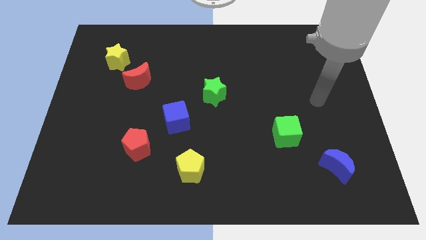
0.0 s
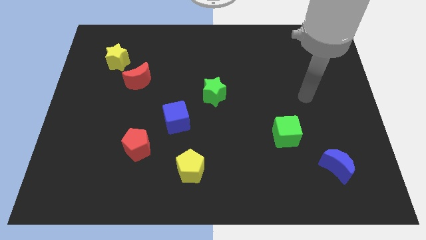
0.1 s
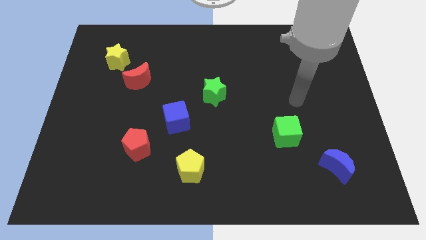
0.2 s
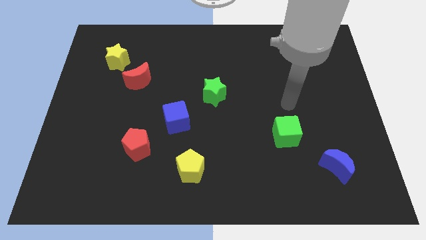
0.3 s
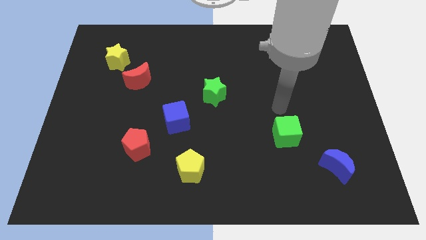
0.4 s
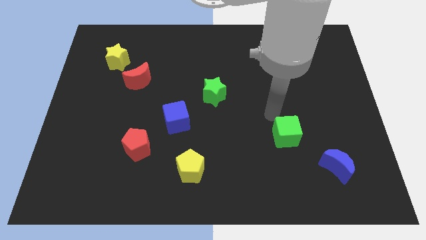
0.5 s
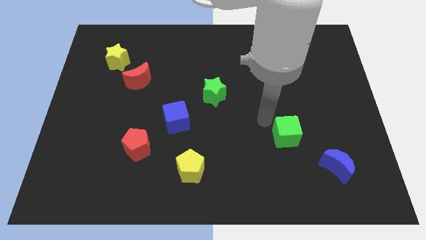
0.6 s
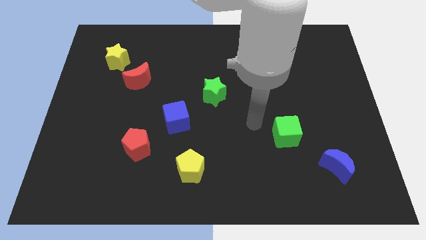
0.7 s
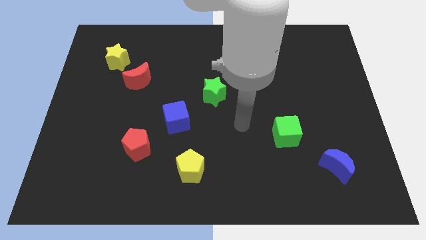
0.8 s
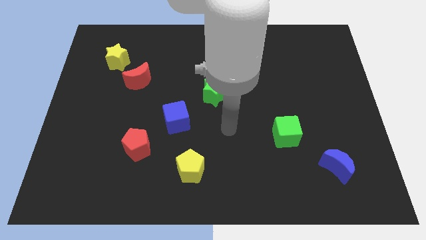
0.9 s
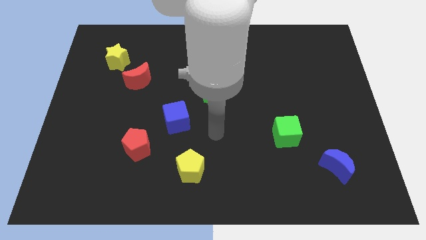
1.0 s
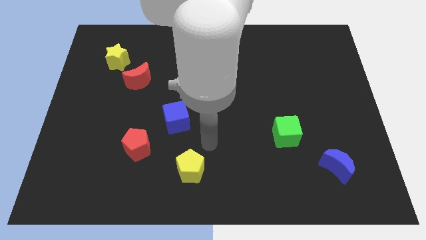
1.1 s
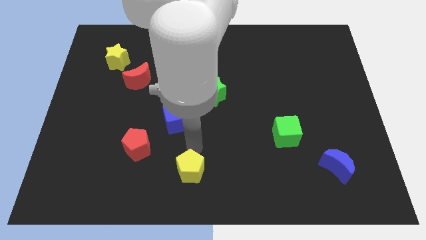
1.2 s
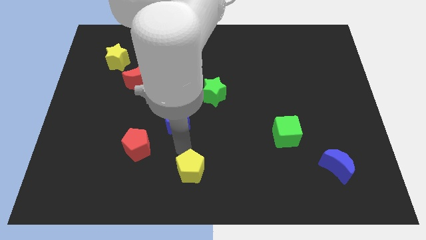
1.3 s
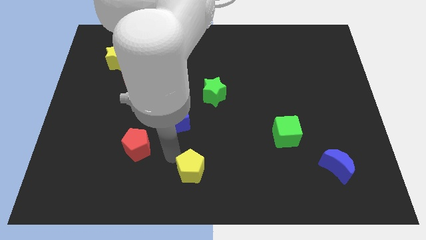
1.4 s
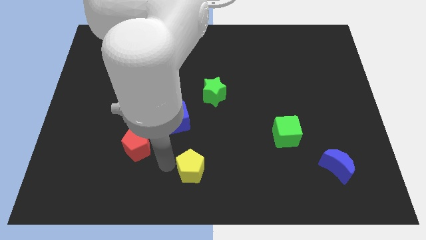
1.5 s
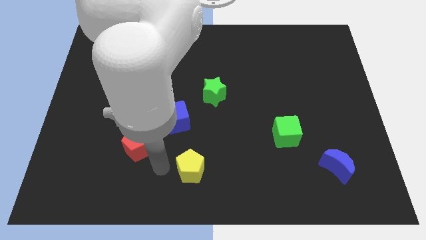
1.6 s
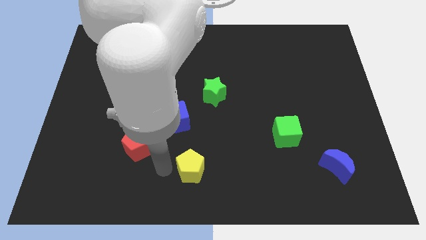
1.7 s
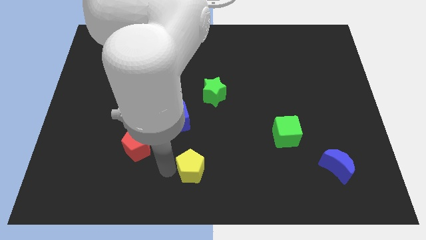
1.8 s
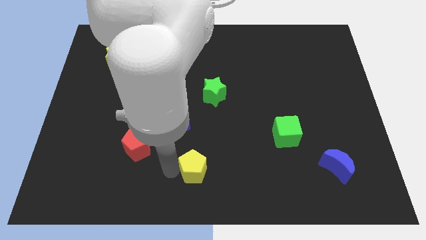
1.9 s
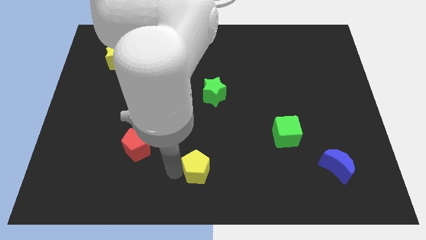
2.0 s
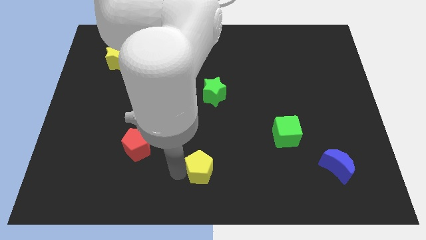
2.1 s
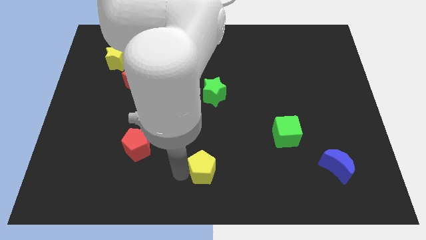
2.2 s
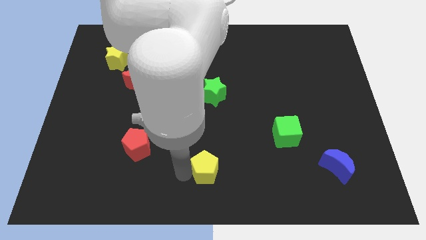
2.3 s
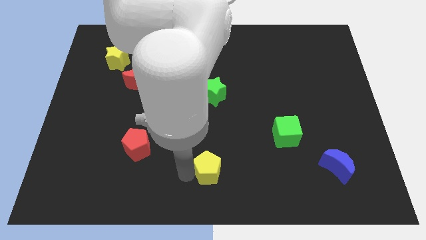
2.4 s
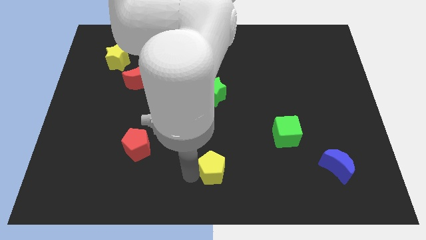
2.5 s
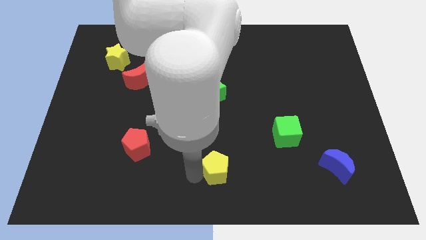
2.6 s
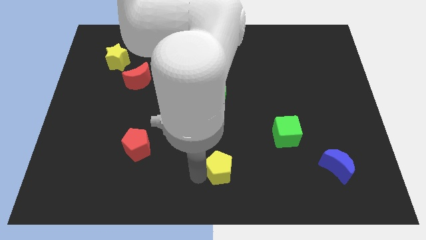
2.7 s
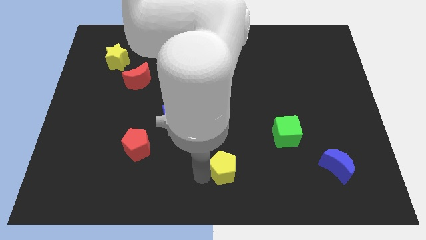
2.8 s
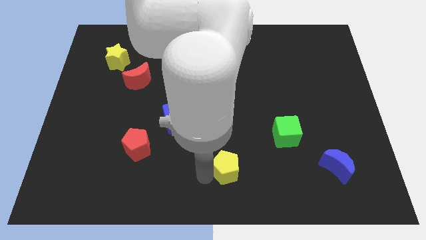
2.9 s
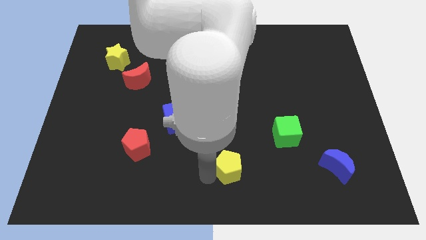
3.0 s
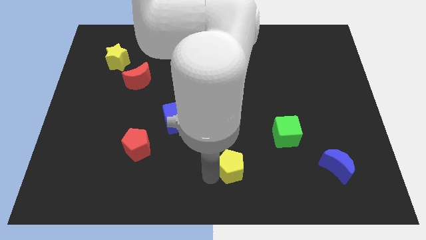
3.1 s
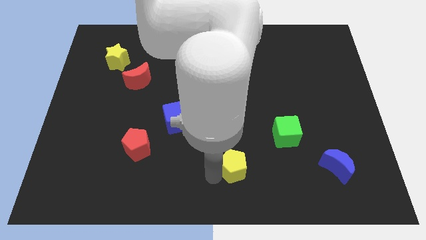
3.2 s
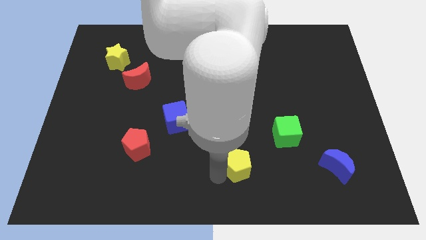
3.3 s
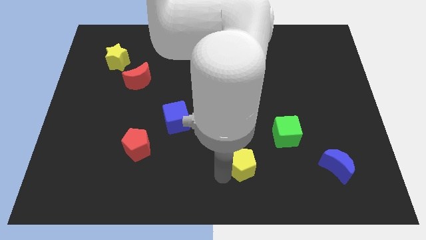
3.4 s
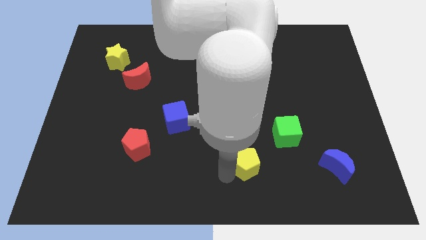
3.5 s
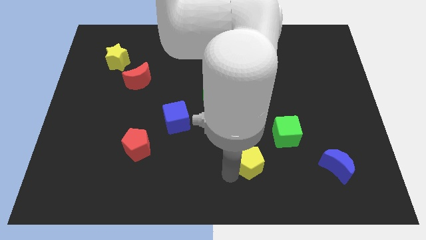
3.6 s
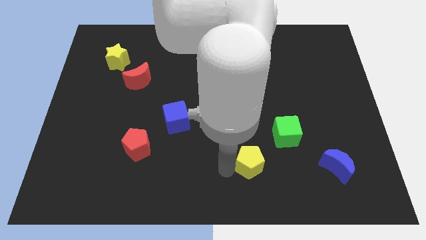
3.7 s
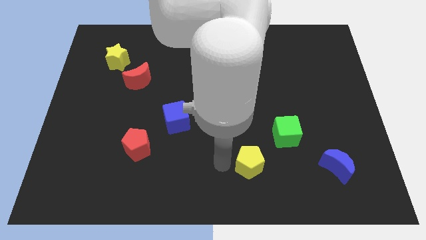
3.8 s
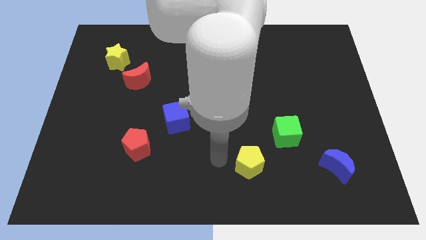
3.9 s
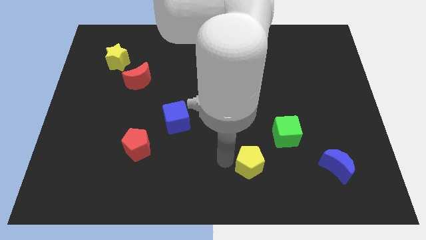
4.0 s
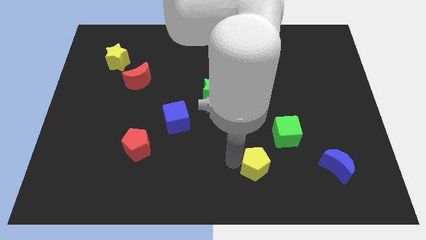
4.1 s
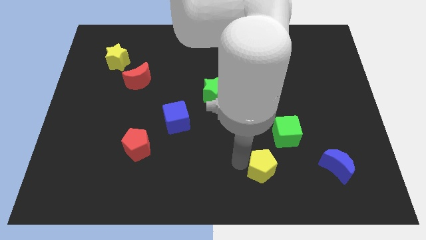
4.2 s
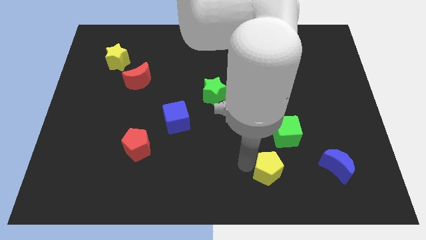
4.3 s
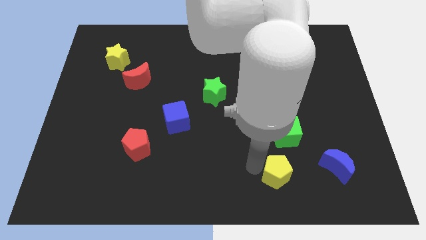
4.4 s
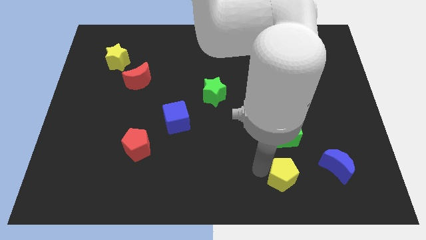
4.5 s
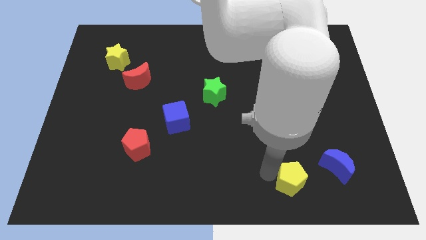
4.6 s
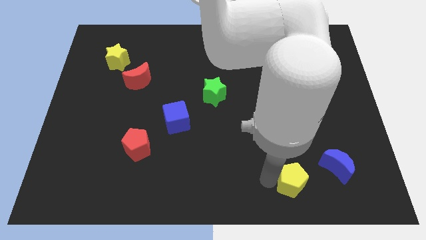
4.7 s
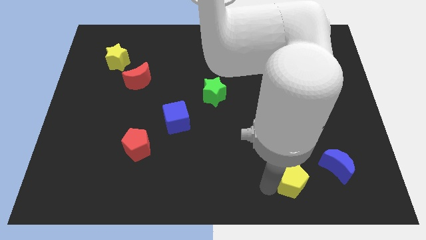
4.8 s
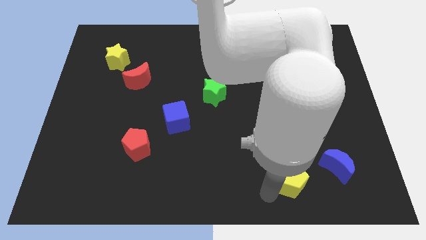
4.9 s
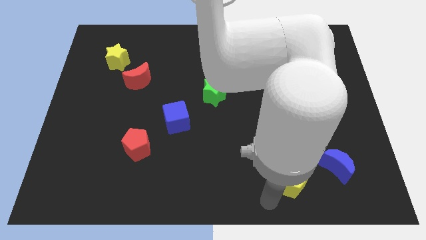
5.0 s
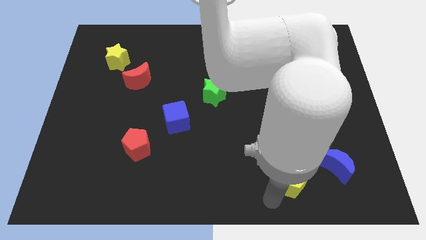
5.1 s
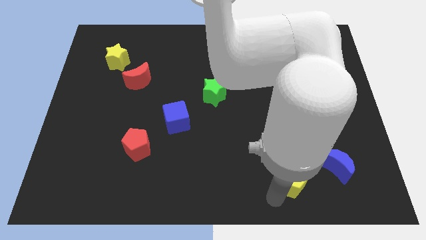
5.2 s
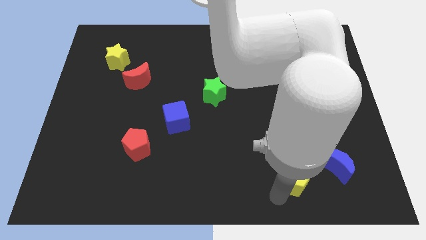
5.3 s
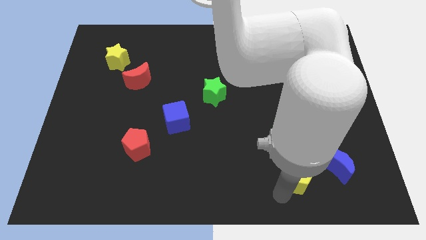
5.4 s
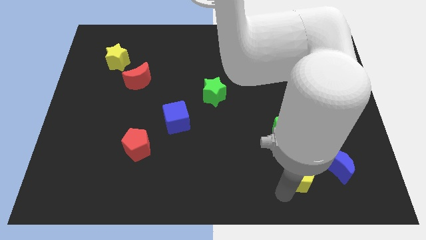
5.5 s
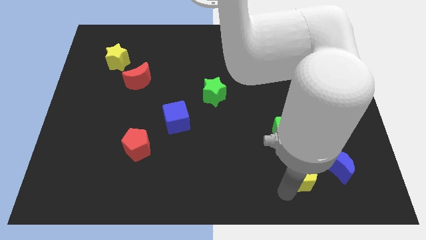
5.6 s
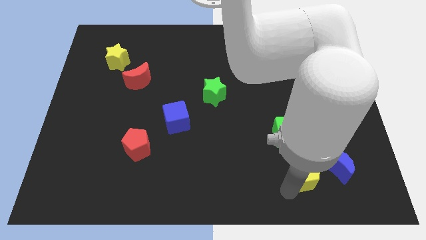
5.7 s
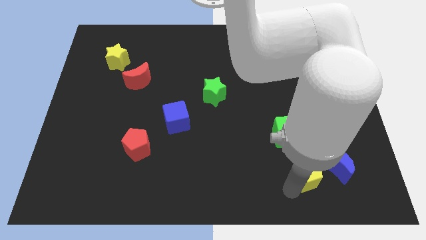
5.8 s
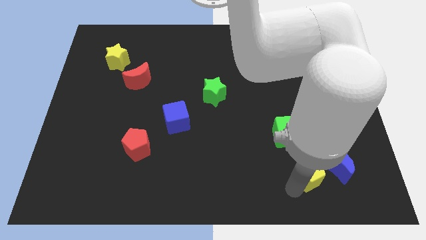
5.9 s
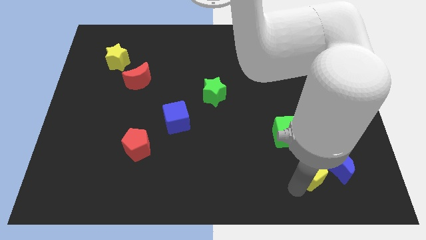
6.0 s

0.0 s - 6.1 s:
put the yellow pentagon close to the blue moon

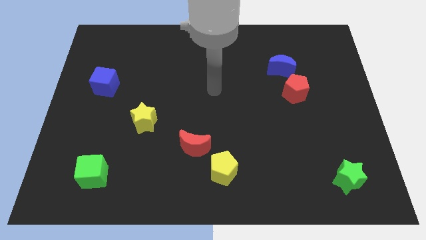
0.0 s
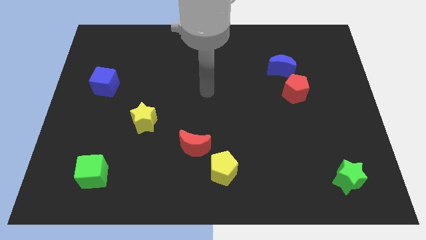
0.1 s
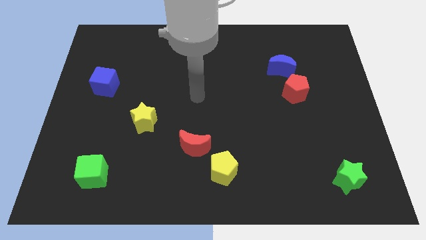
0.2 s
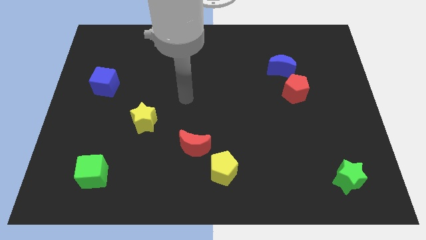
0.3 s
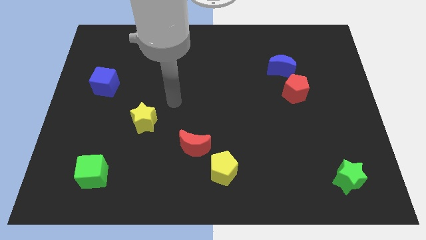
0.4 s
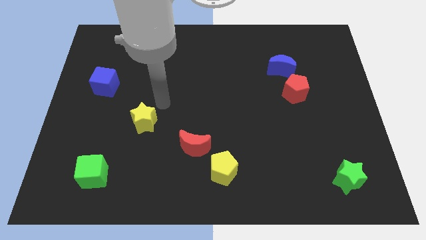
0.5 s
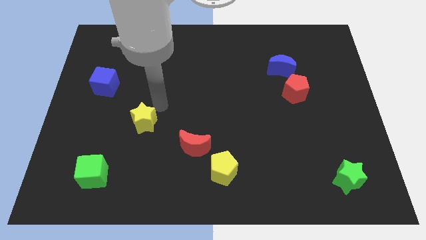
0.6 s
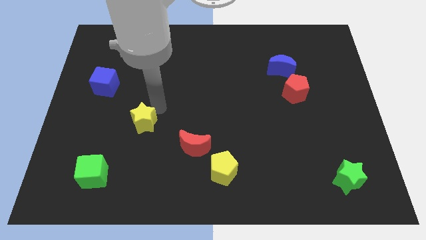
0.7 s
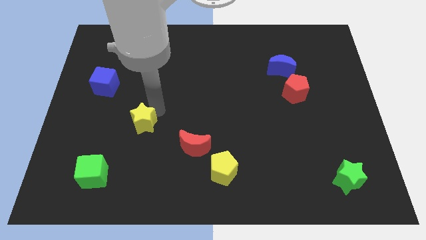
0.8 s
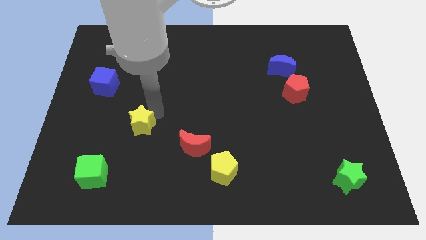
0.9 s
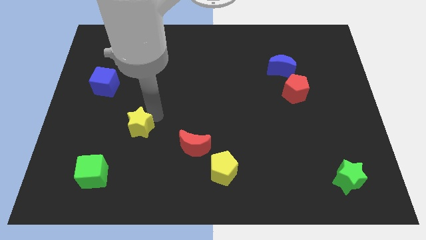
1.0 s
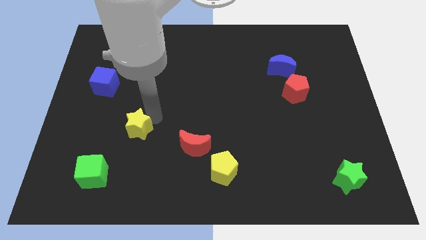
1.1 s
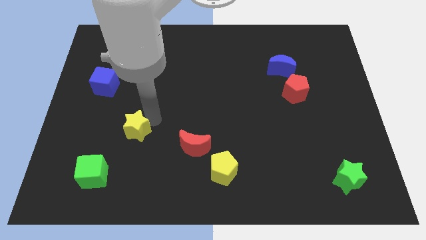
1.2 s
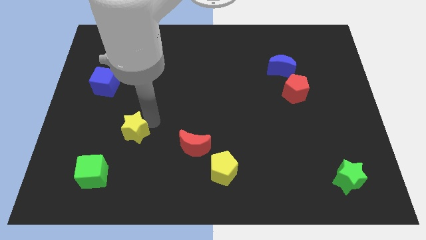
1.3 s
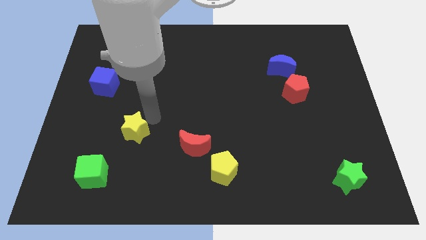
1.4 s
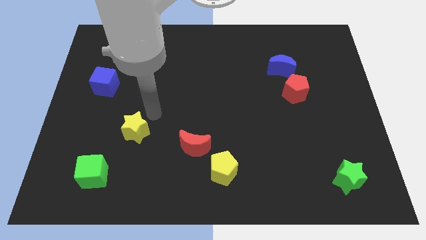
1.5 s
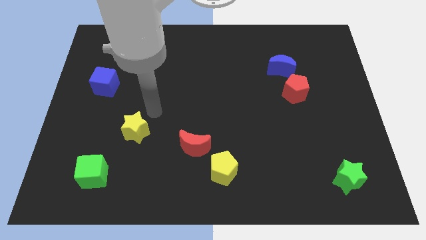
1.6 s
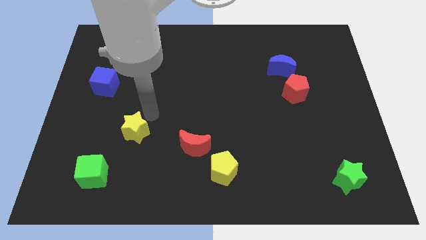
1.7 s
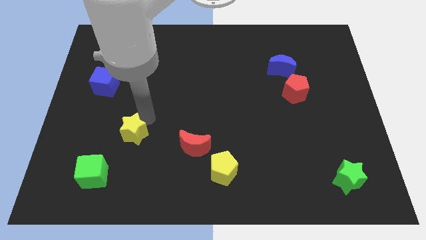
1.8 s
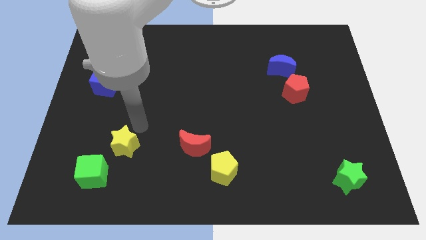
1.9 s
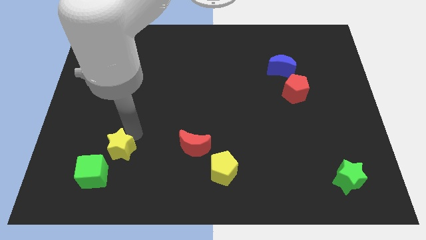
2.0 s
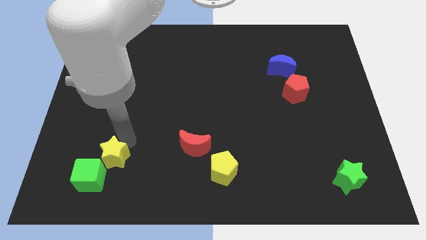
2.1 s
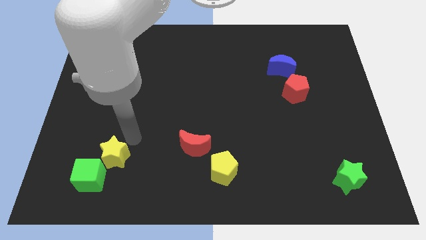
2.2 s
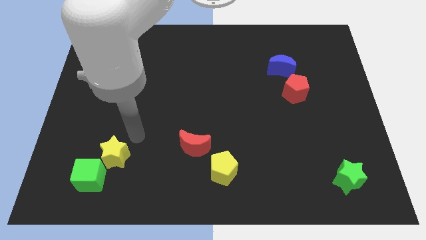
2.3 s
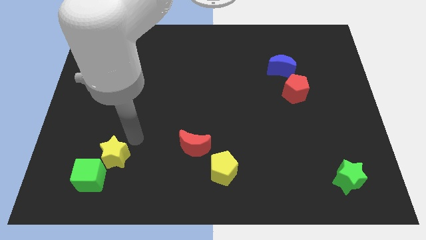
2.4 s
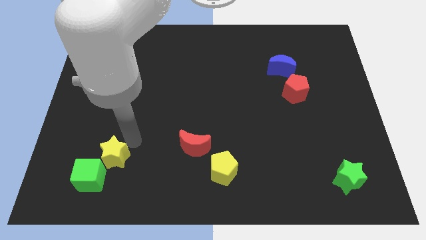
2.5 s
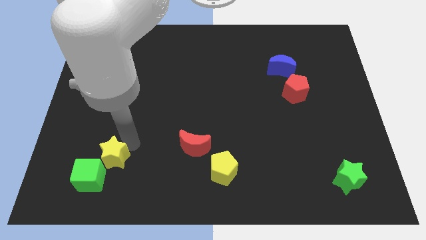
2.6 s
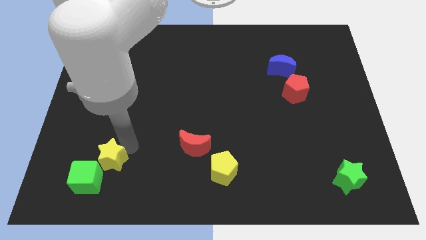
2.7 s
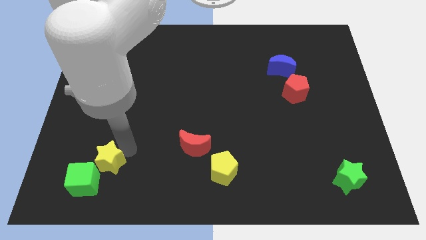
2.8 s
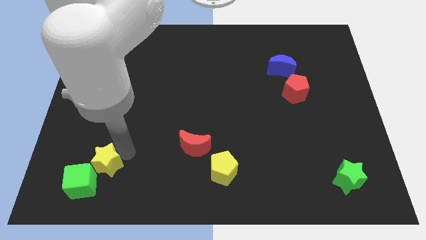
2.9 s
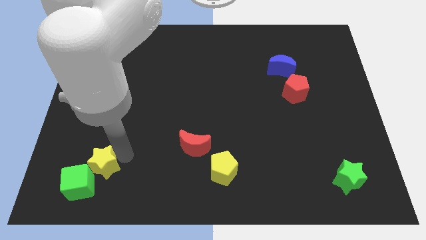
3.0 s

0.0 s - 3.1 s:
slide the yellow star next to the green cube
